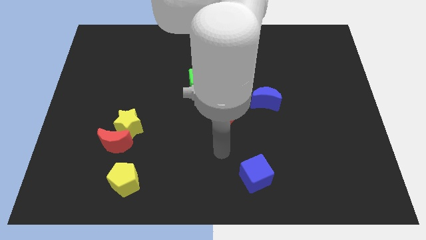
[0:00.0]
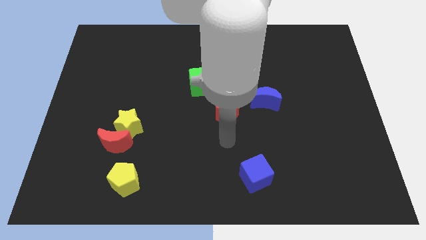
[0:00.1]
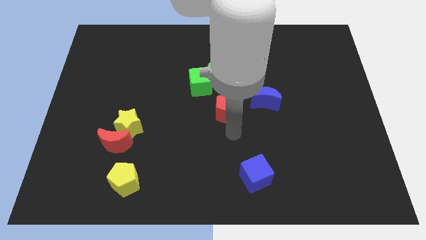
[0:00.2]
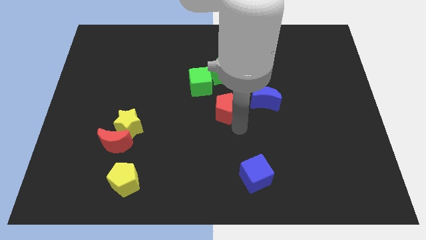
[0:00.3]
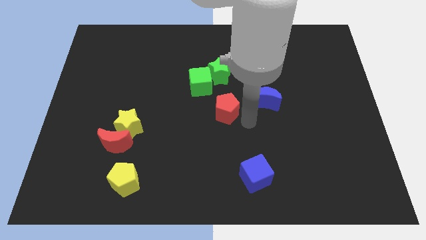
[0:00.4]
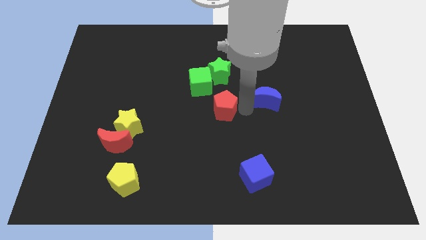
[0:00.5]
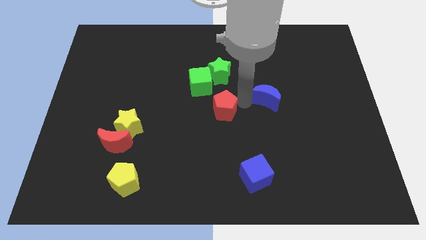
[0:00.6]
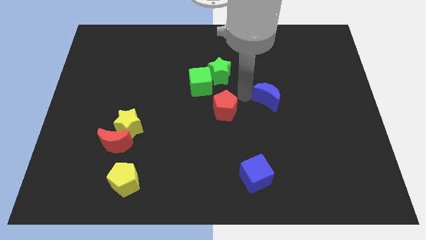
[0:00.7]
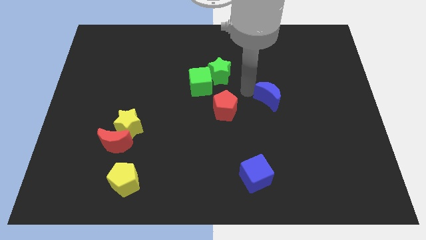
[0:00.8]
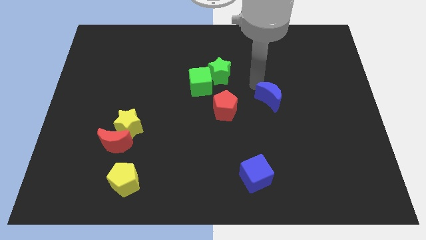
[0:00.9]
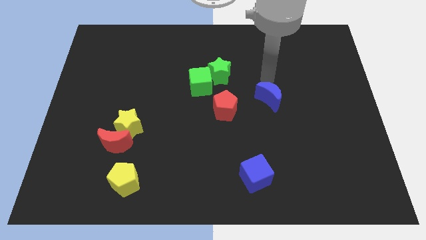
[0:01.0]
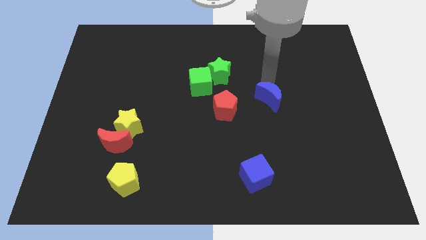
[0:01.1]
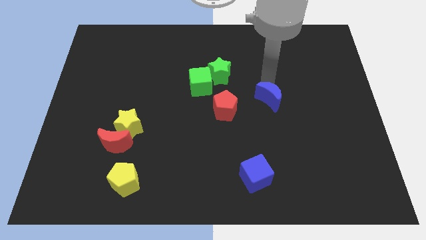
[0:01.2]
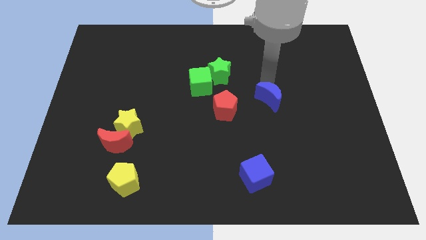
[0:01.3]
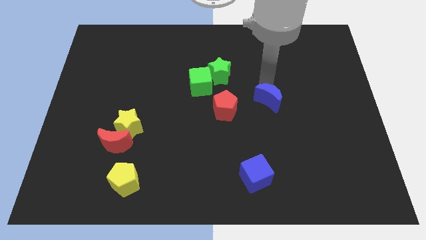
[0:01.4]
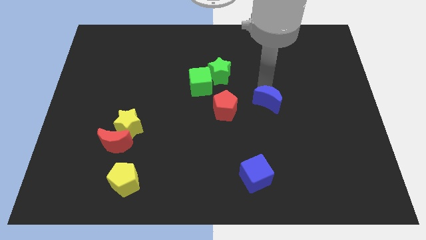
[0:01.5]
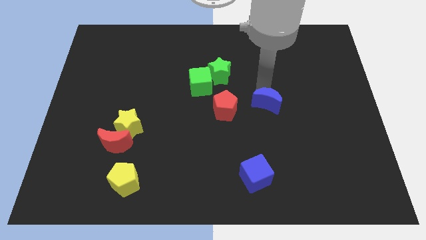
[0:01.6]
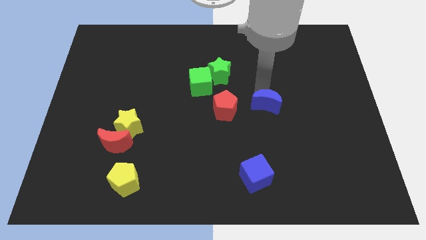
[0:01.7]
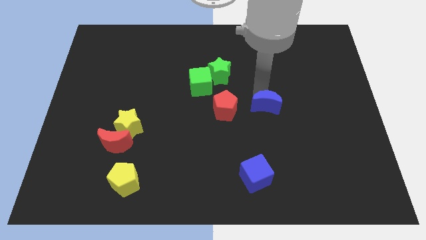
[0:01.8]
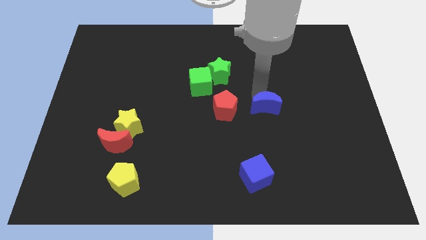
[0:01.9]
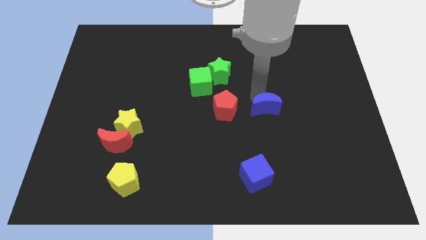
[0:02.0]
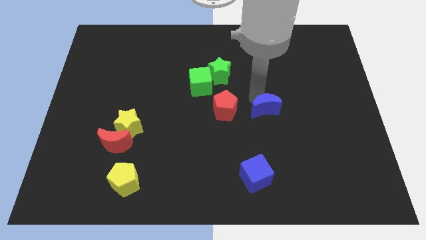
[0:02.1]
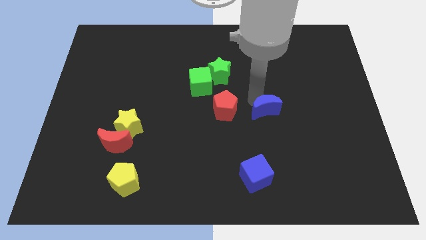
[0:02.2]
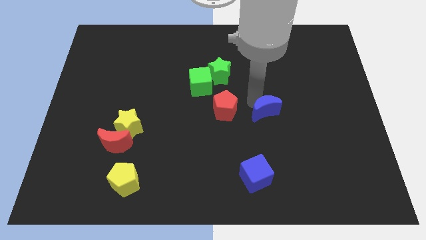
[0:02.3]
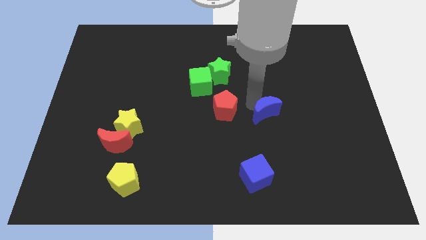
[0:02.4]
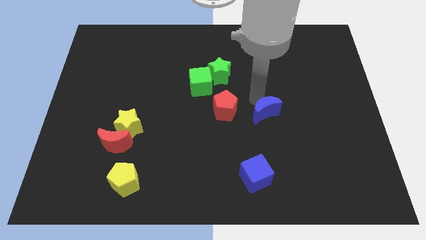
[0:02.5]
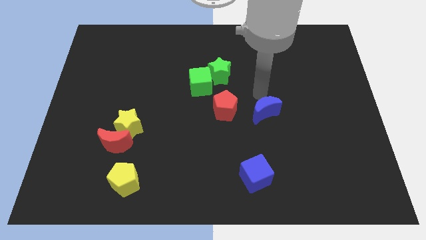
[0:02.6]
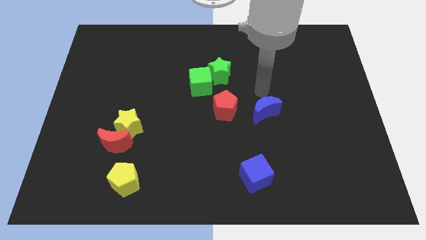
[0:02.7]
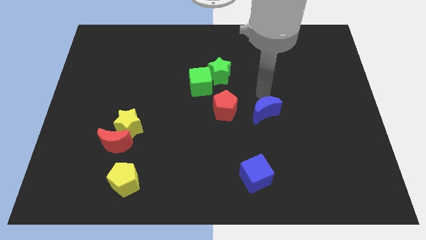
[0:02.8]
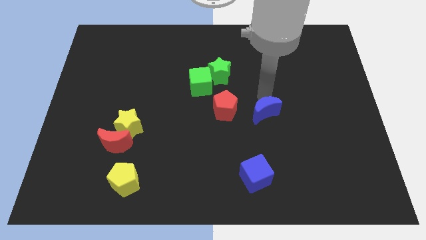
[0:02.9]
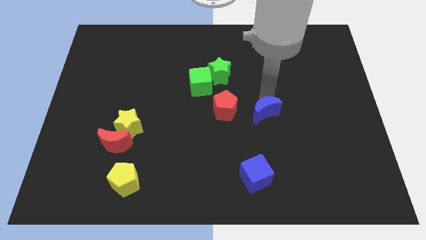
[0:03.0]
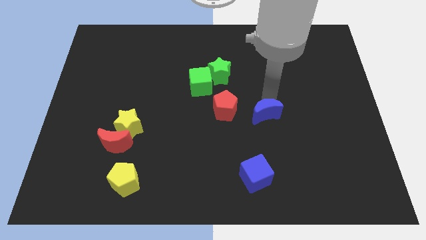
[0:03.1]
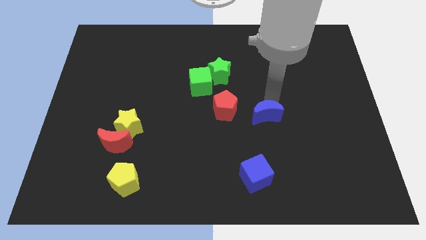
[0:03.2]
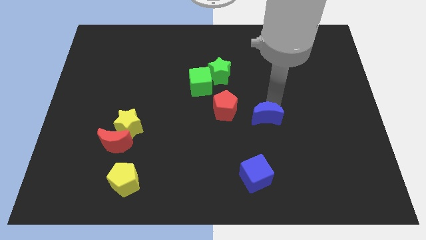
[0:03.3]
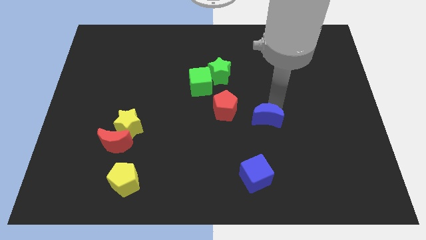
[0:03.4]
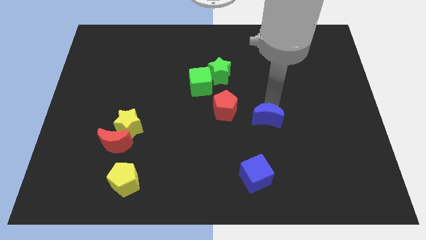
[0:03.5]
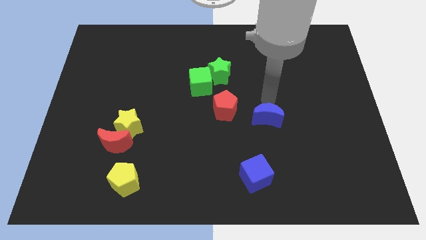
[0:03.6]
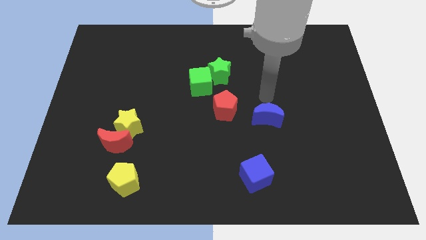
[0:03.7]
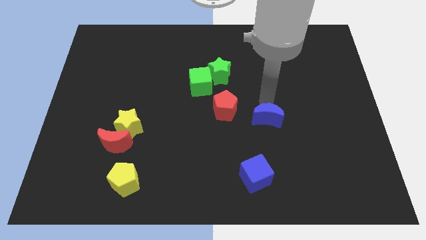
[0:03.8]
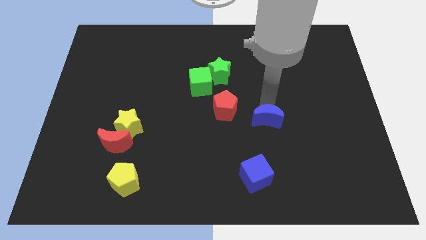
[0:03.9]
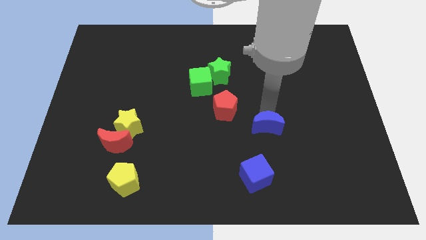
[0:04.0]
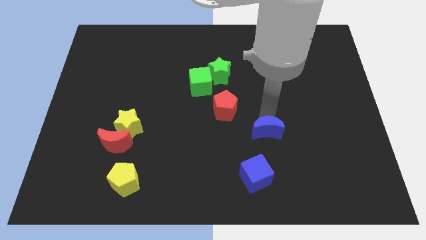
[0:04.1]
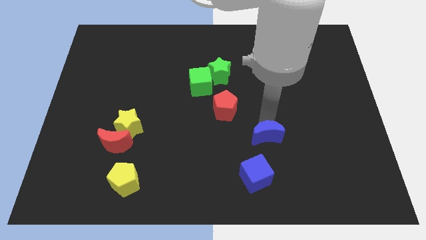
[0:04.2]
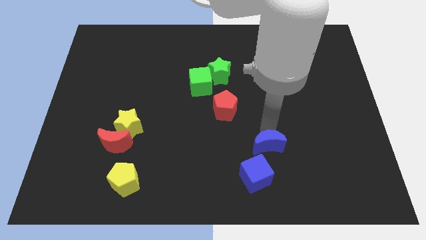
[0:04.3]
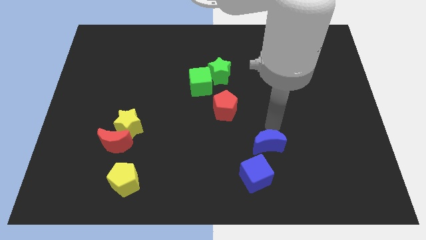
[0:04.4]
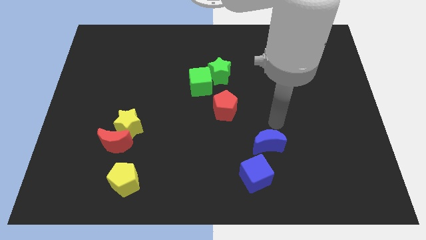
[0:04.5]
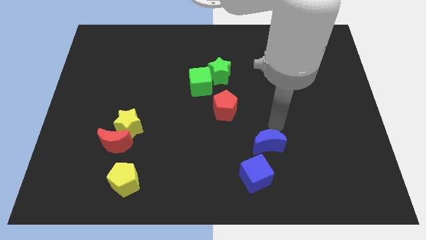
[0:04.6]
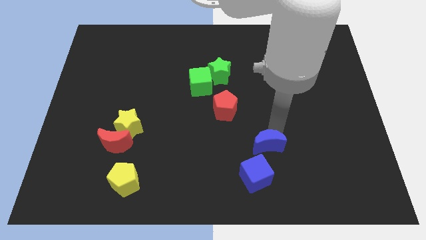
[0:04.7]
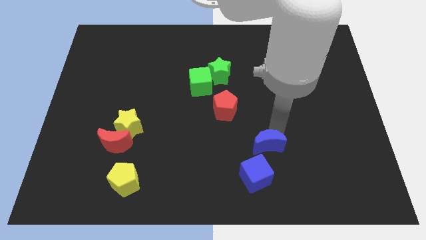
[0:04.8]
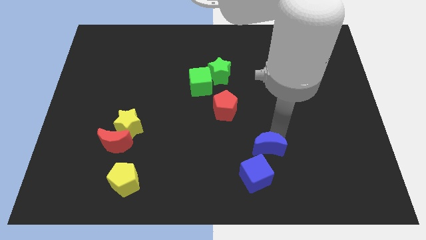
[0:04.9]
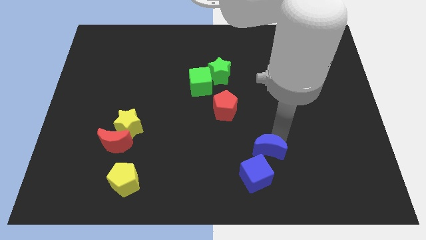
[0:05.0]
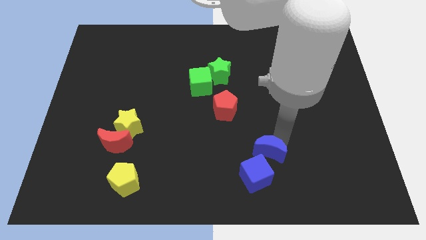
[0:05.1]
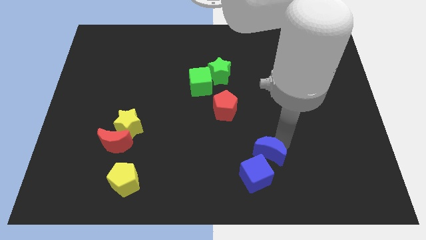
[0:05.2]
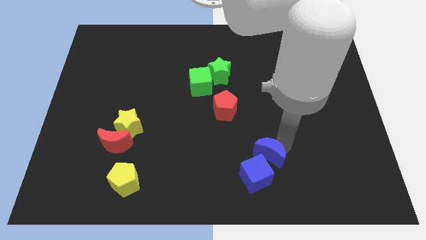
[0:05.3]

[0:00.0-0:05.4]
put the blue moon towards the blue cube

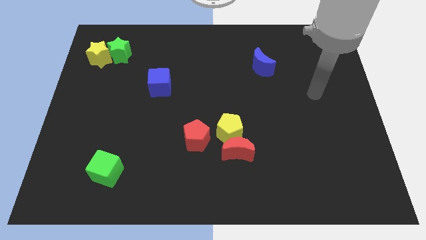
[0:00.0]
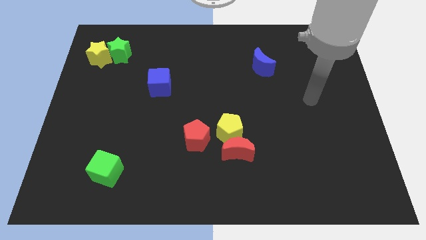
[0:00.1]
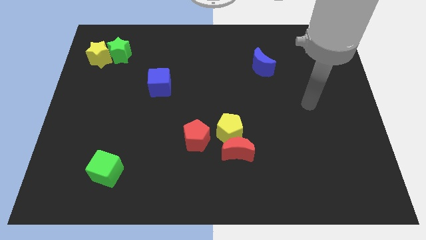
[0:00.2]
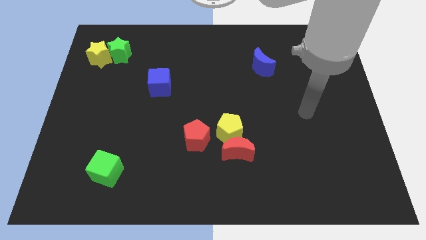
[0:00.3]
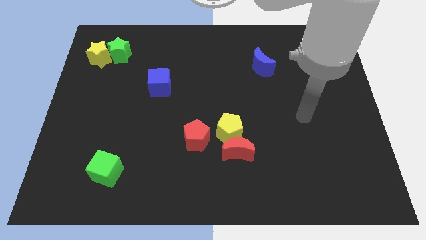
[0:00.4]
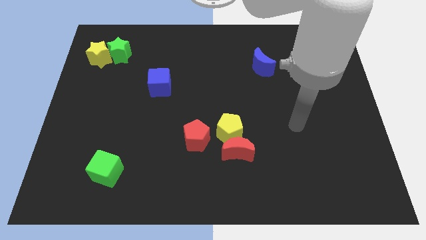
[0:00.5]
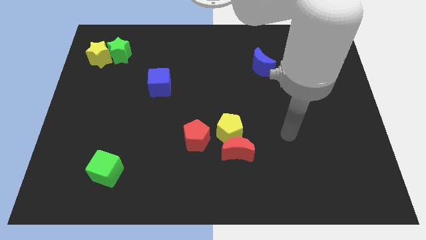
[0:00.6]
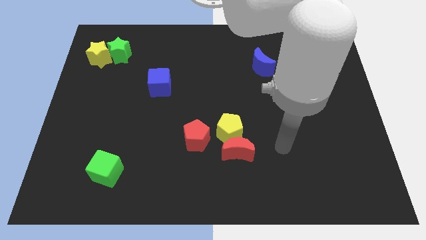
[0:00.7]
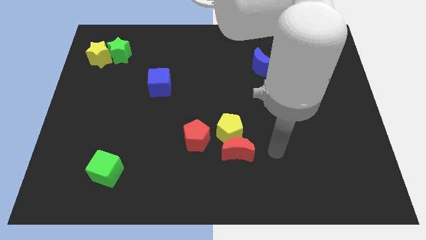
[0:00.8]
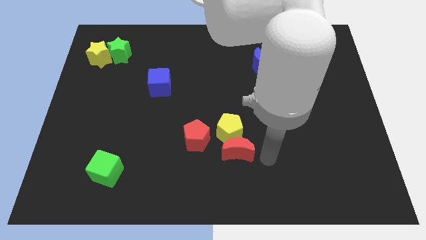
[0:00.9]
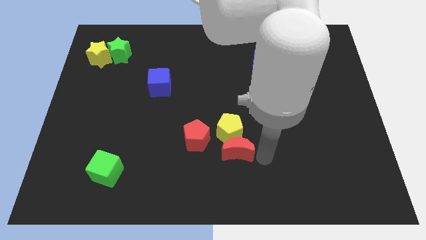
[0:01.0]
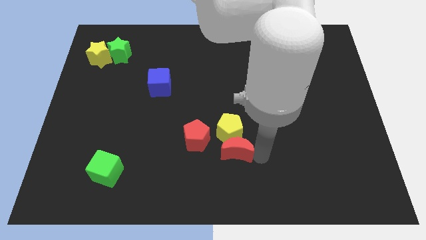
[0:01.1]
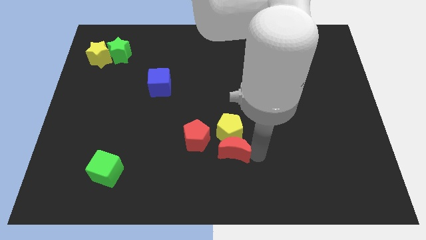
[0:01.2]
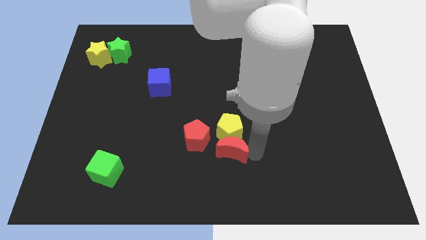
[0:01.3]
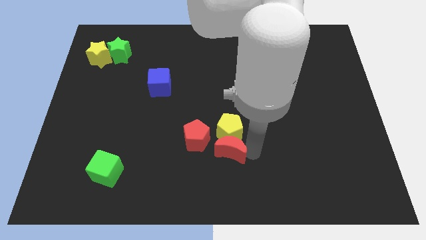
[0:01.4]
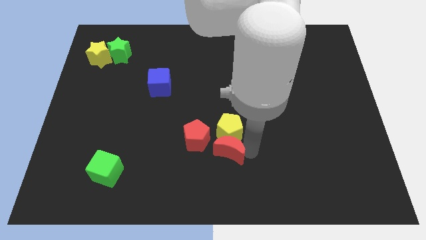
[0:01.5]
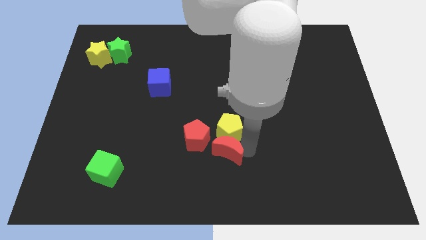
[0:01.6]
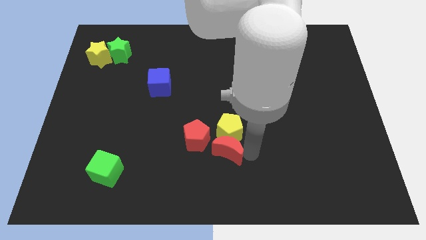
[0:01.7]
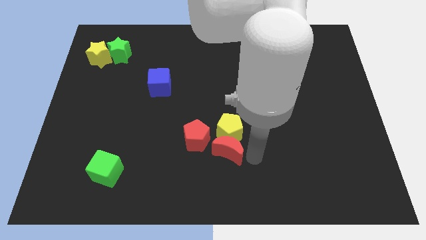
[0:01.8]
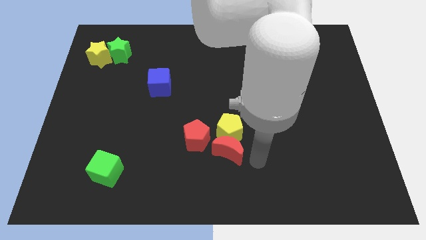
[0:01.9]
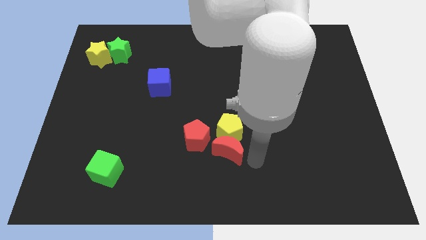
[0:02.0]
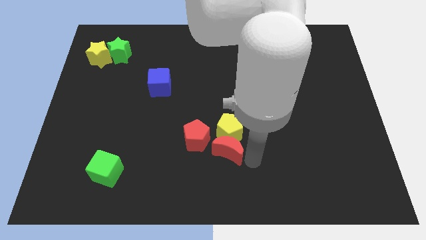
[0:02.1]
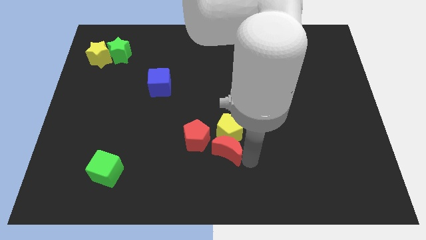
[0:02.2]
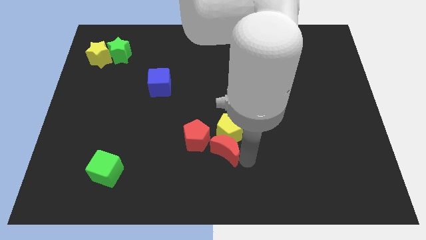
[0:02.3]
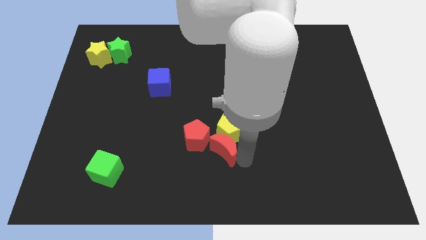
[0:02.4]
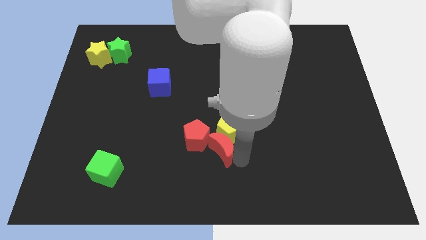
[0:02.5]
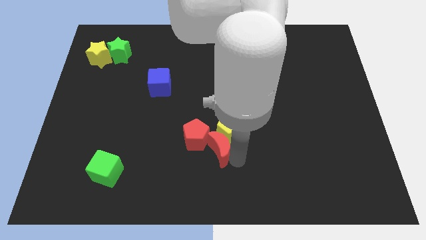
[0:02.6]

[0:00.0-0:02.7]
push the red moon close to the red pentagon

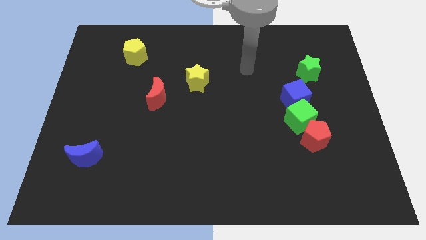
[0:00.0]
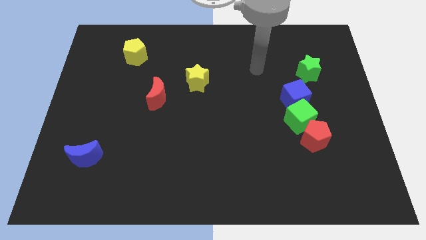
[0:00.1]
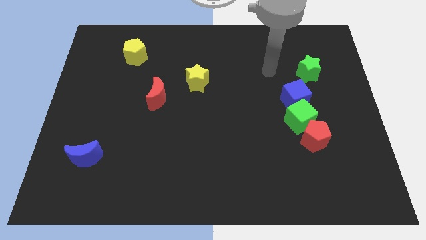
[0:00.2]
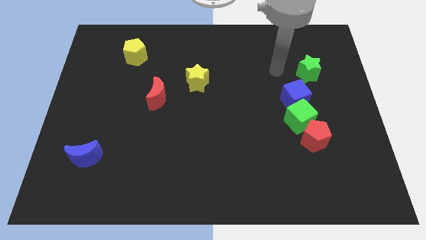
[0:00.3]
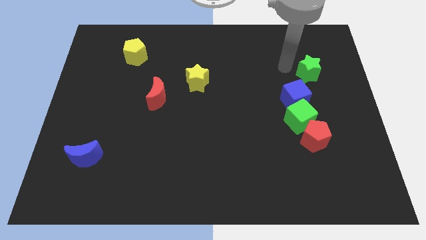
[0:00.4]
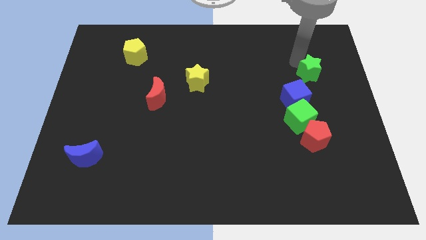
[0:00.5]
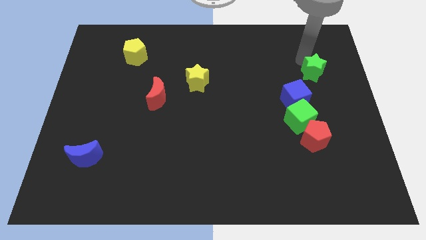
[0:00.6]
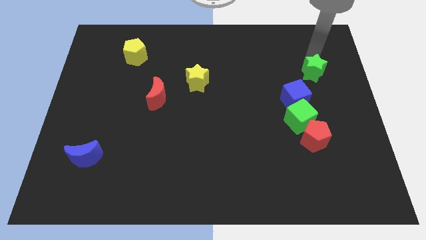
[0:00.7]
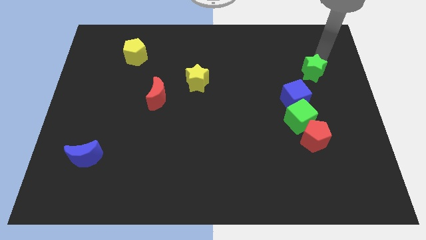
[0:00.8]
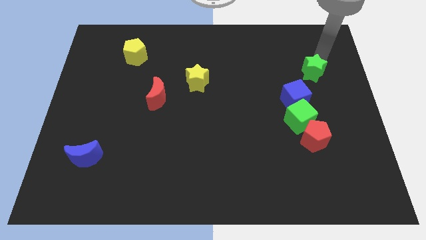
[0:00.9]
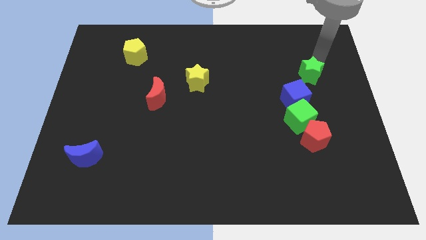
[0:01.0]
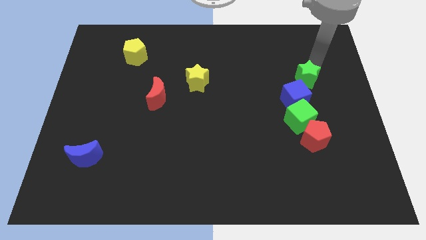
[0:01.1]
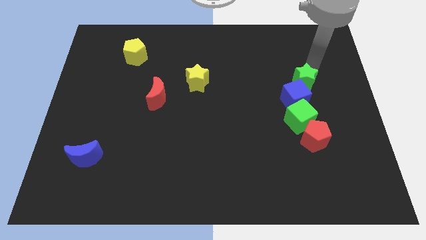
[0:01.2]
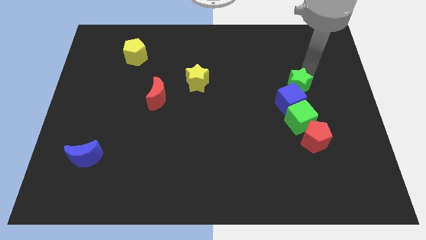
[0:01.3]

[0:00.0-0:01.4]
put the green star towards the blue cube
